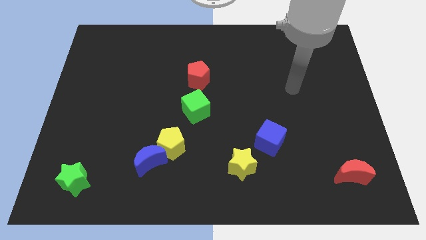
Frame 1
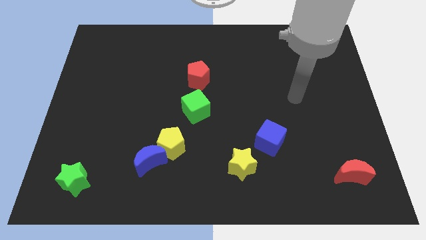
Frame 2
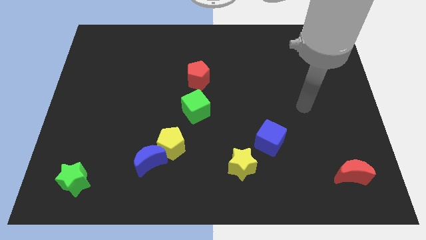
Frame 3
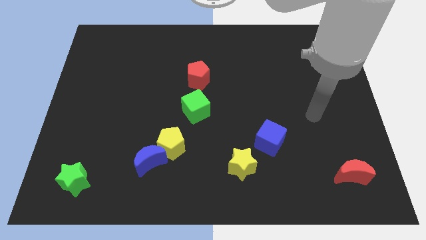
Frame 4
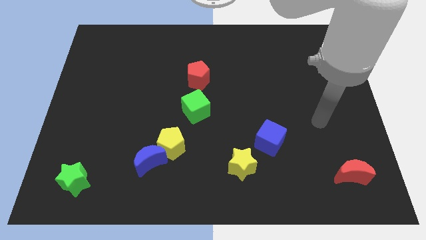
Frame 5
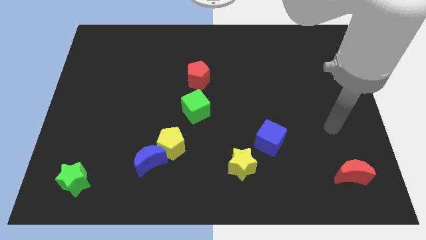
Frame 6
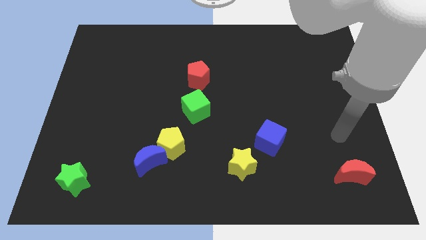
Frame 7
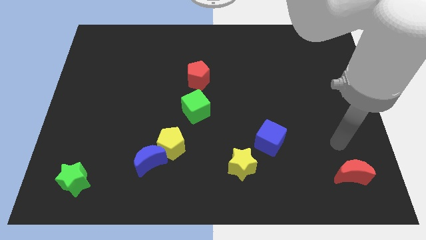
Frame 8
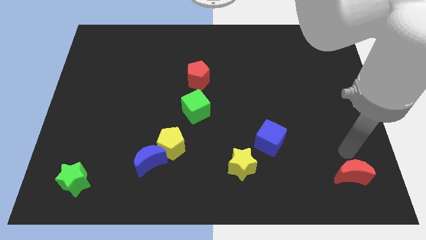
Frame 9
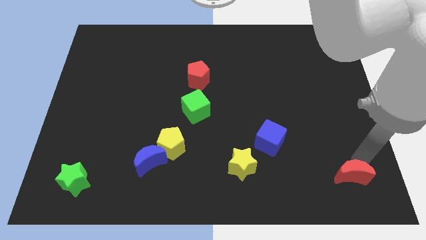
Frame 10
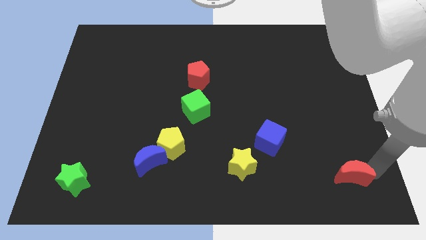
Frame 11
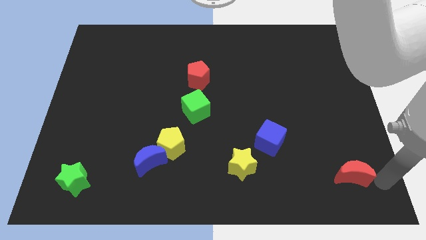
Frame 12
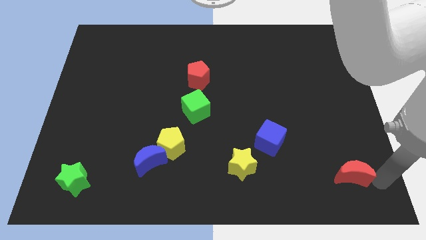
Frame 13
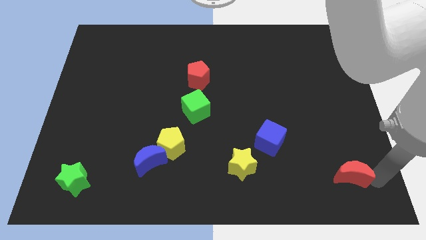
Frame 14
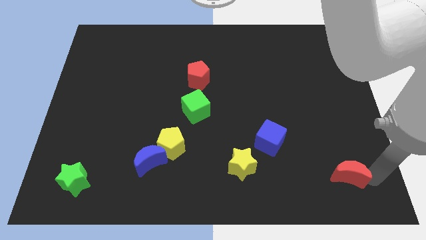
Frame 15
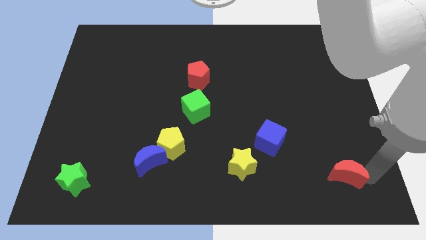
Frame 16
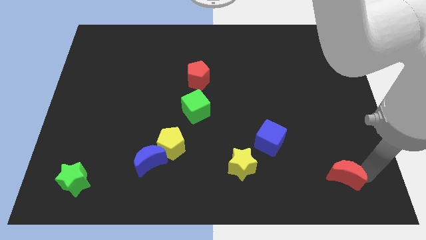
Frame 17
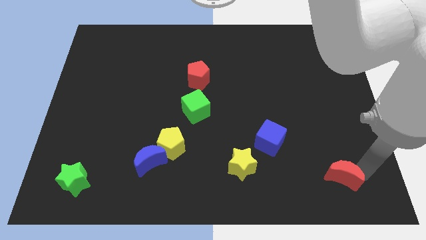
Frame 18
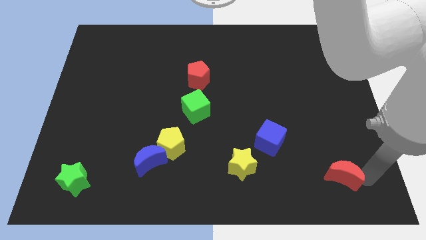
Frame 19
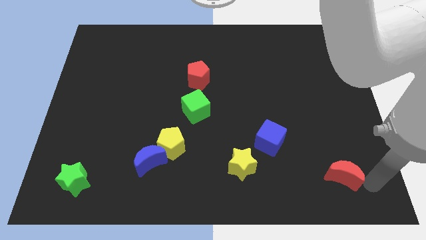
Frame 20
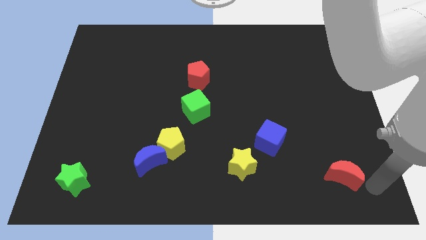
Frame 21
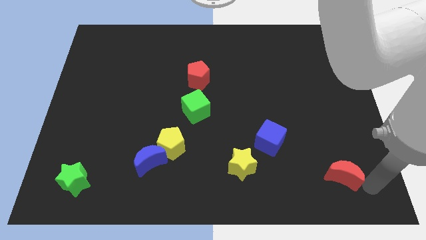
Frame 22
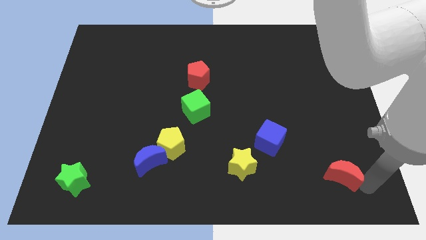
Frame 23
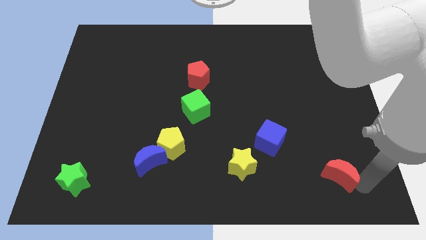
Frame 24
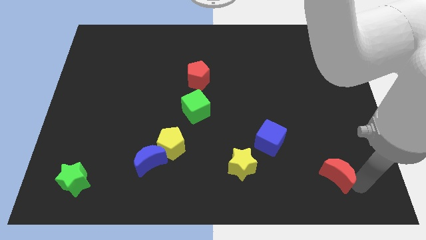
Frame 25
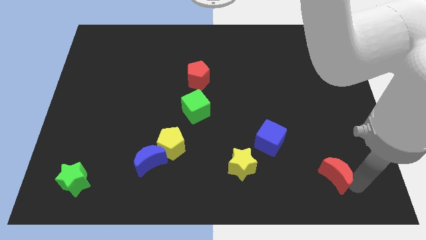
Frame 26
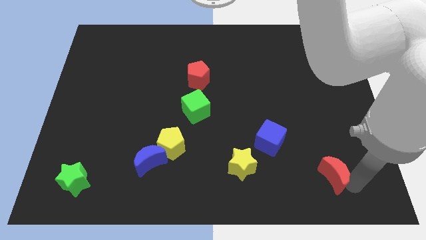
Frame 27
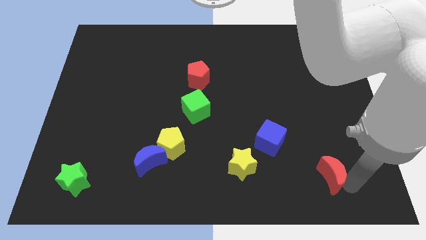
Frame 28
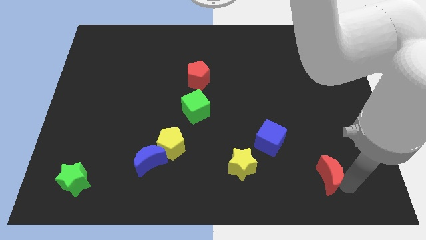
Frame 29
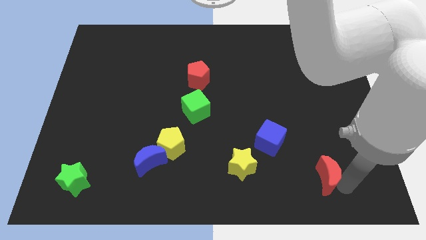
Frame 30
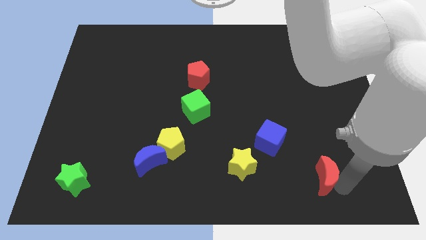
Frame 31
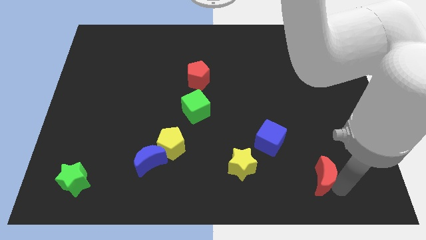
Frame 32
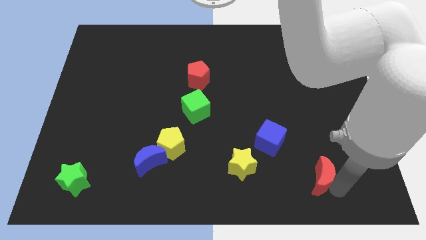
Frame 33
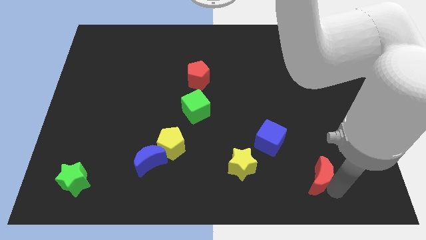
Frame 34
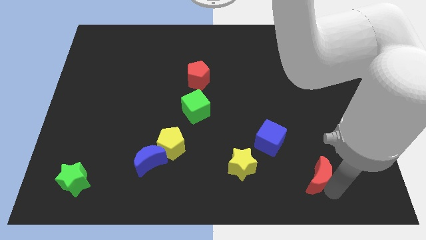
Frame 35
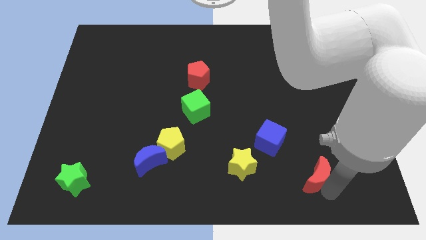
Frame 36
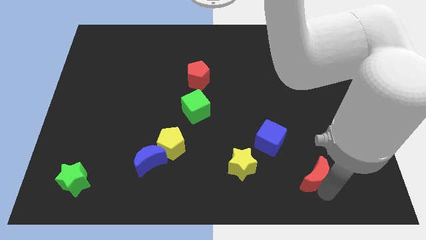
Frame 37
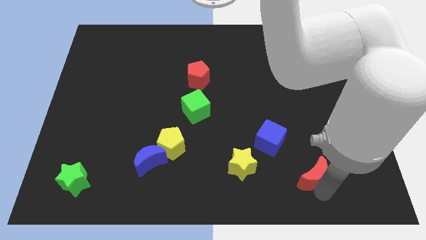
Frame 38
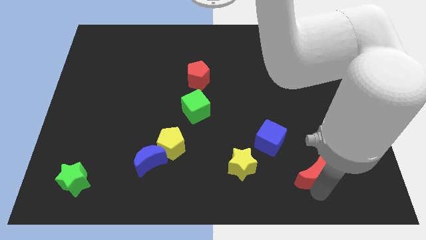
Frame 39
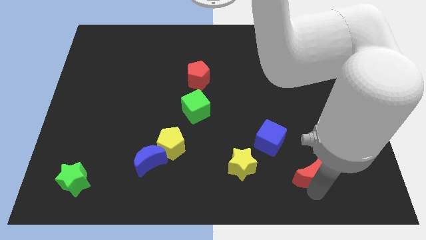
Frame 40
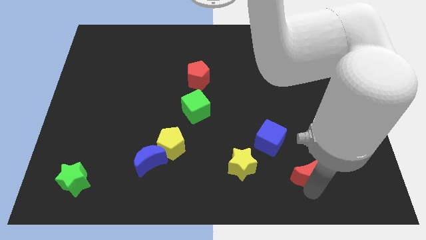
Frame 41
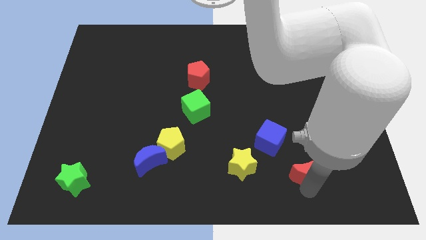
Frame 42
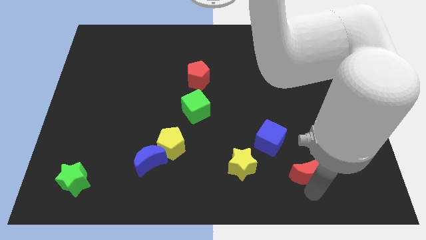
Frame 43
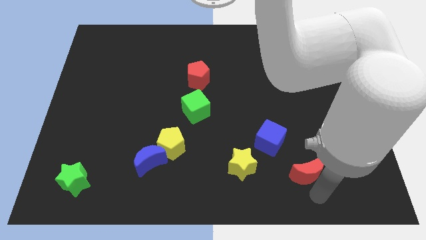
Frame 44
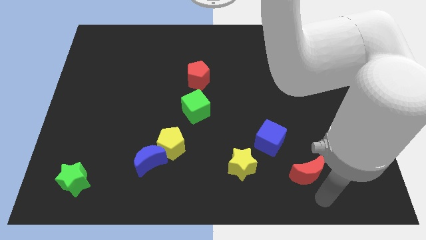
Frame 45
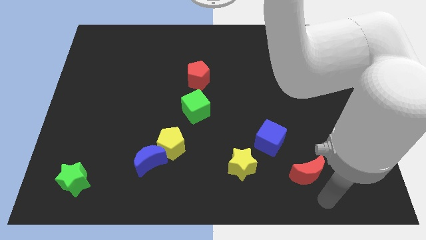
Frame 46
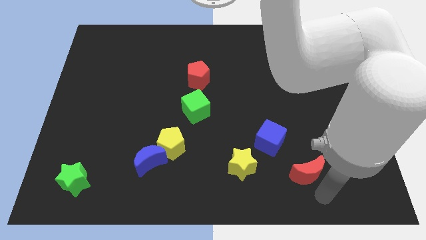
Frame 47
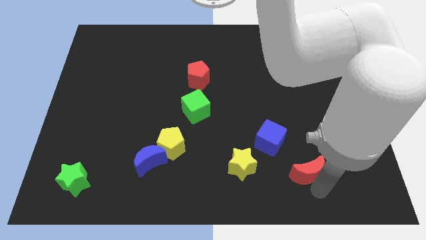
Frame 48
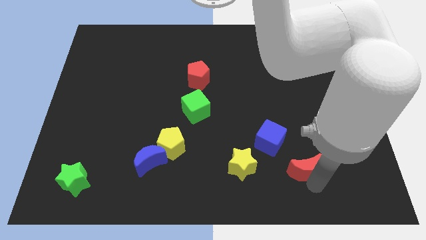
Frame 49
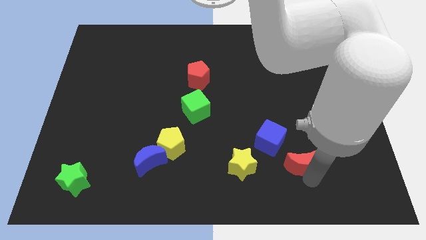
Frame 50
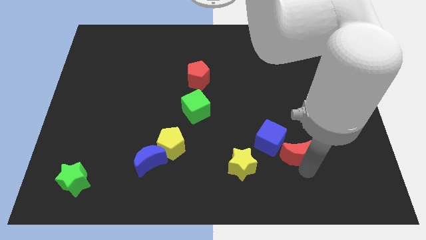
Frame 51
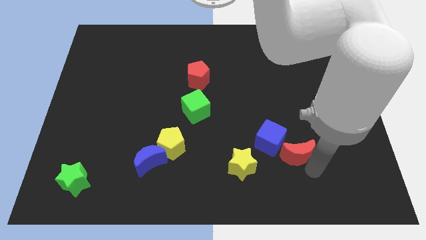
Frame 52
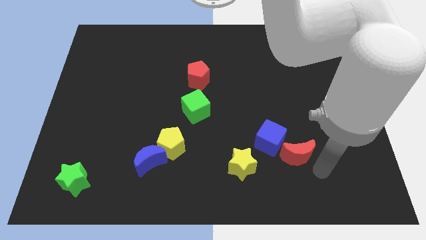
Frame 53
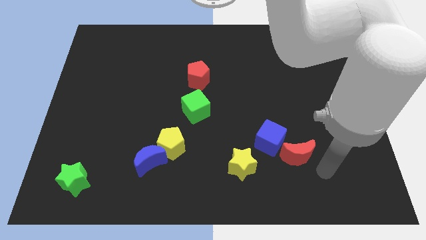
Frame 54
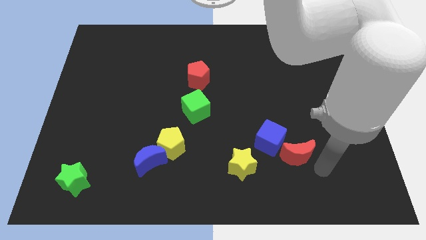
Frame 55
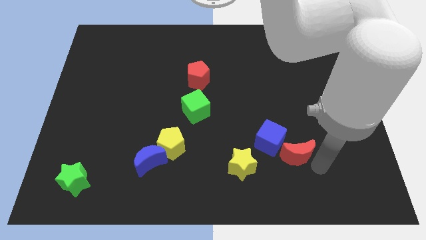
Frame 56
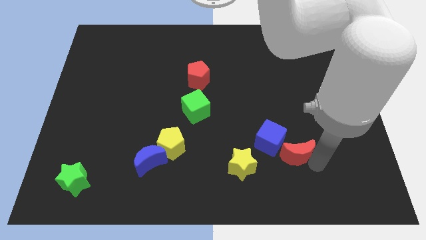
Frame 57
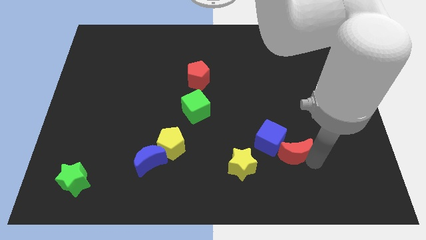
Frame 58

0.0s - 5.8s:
move the red moon to the blue cube
